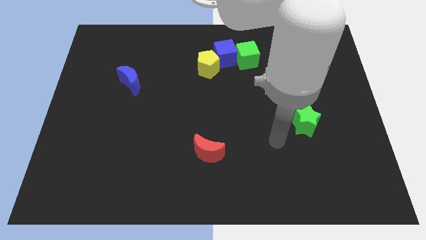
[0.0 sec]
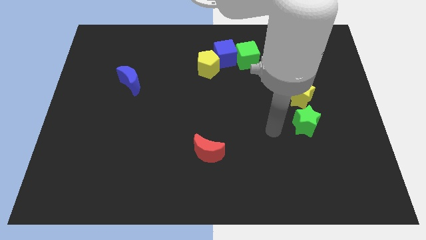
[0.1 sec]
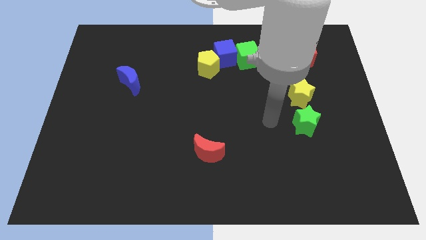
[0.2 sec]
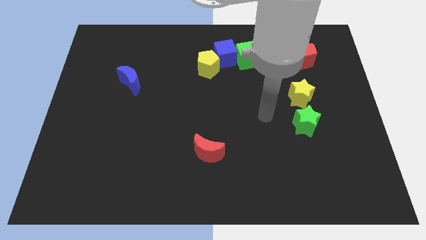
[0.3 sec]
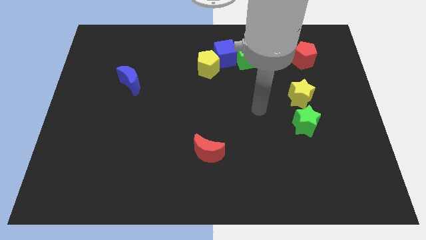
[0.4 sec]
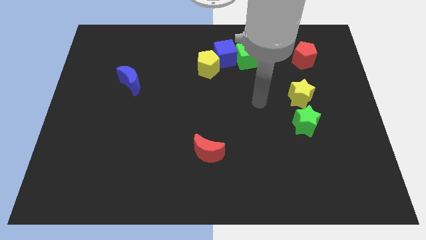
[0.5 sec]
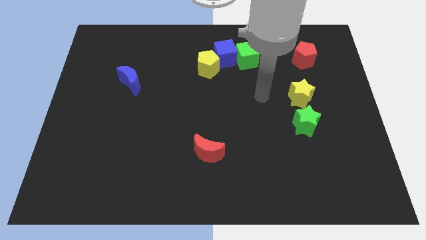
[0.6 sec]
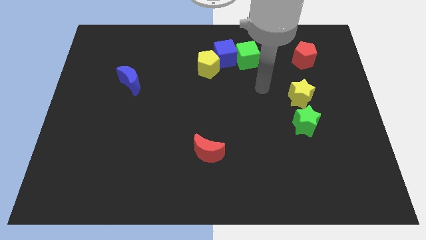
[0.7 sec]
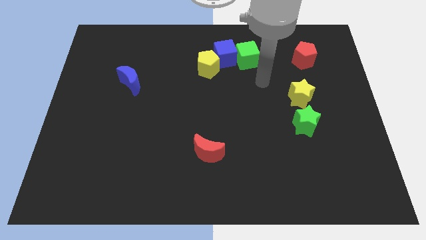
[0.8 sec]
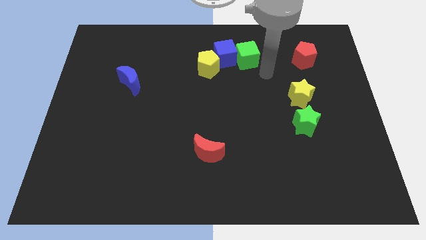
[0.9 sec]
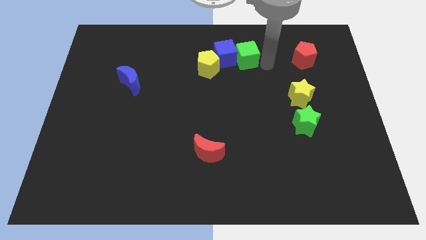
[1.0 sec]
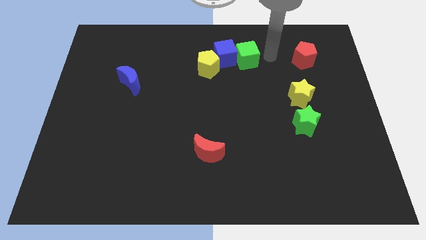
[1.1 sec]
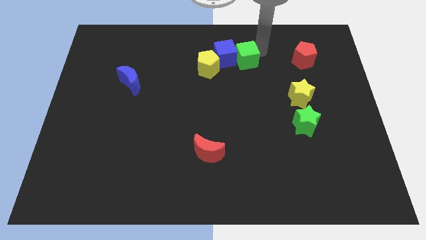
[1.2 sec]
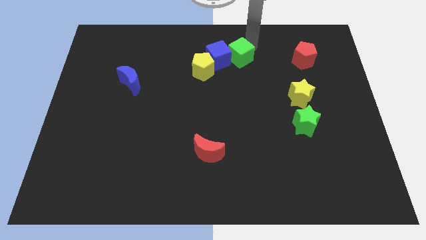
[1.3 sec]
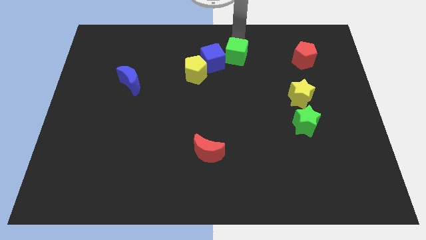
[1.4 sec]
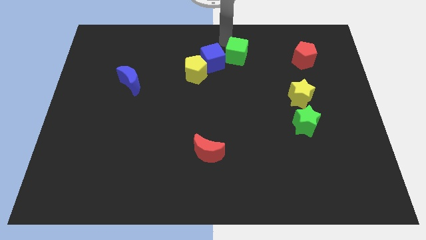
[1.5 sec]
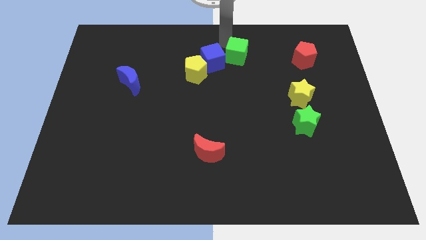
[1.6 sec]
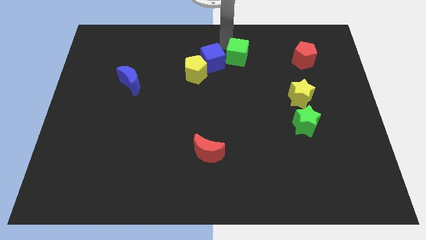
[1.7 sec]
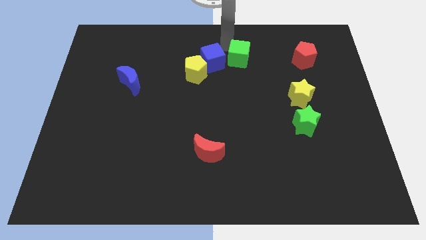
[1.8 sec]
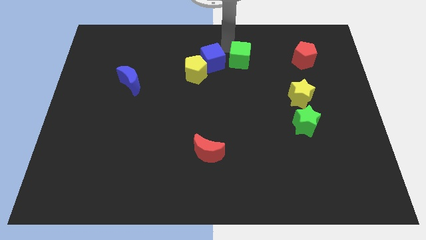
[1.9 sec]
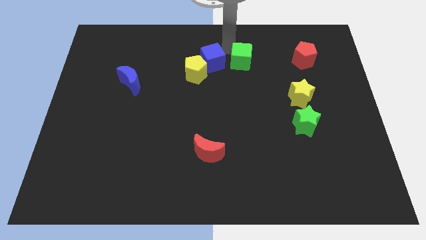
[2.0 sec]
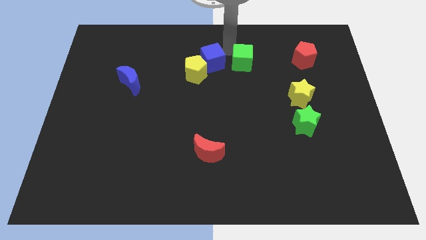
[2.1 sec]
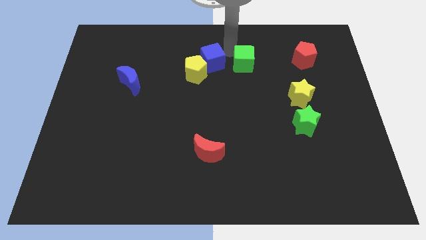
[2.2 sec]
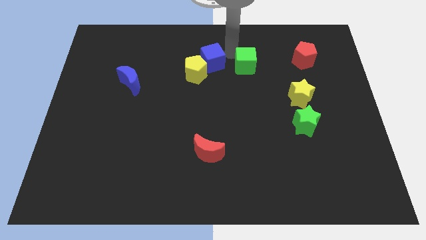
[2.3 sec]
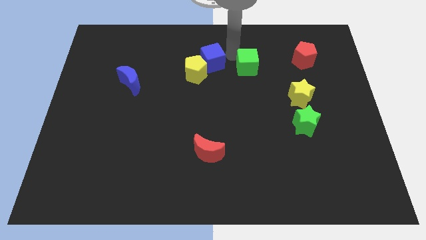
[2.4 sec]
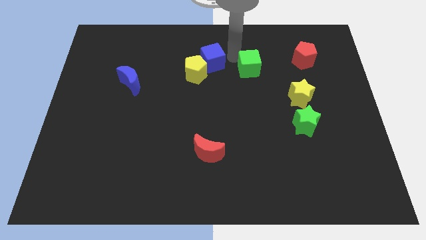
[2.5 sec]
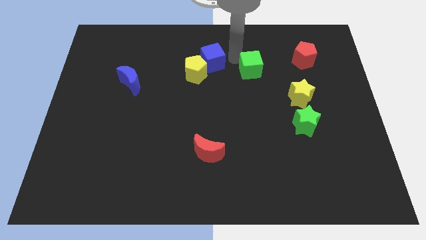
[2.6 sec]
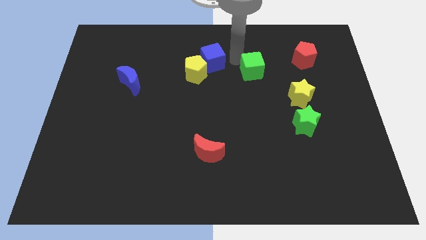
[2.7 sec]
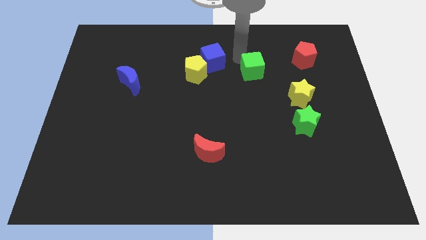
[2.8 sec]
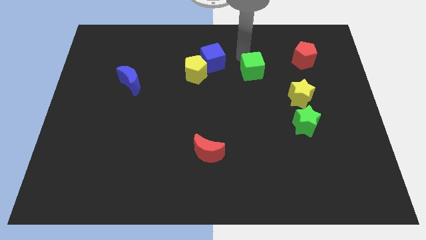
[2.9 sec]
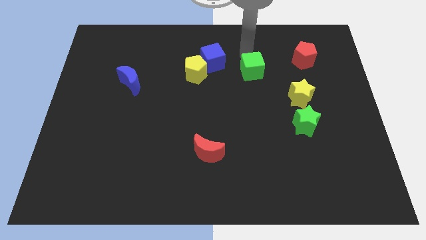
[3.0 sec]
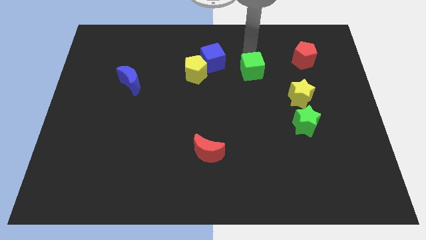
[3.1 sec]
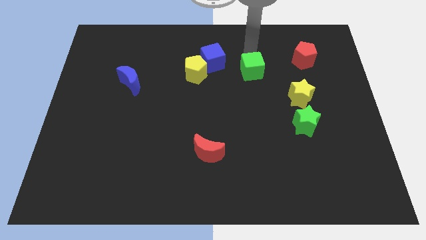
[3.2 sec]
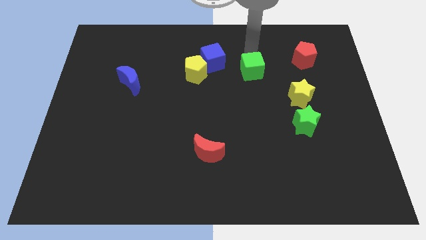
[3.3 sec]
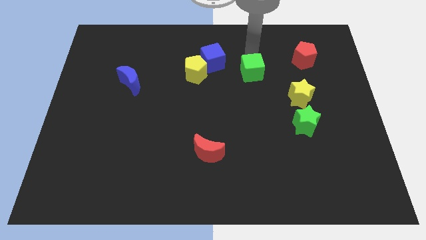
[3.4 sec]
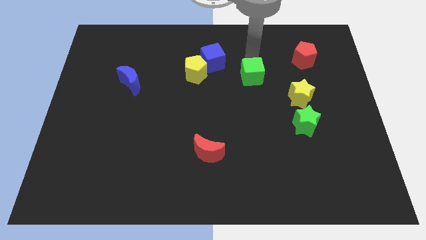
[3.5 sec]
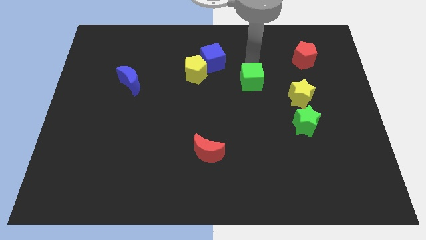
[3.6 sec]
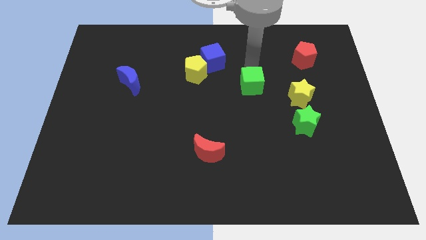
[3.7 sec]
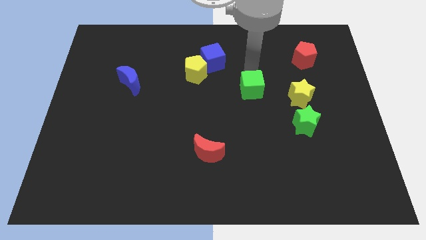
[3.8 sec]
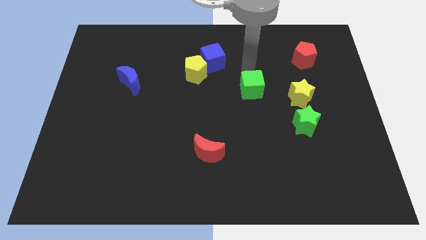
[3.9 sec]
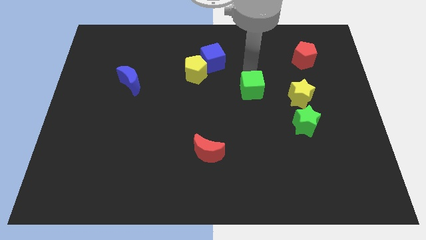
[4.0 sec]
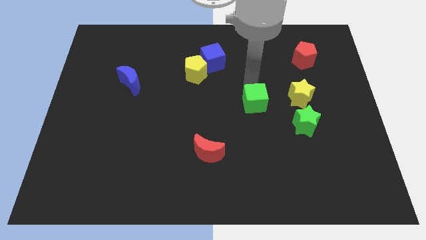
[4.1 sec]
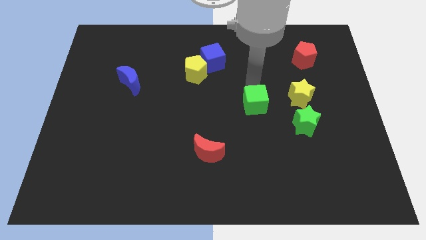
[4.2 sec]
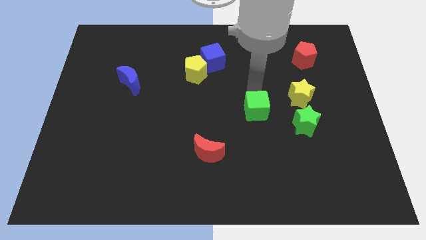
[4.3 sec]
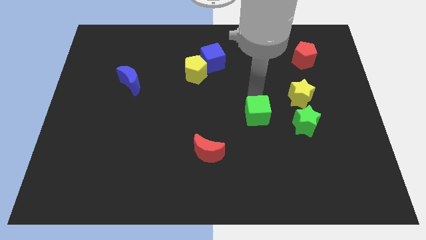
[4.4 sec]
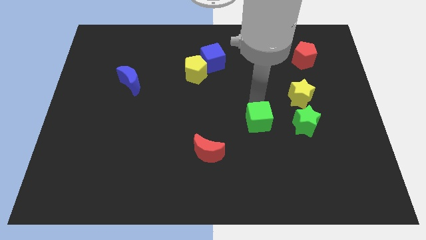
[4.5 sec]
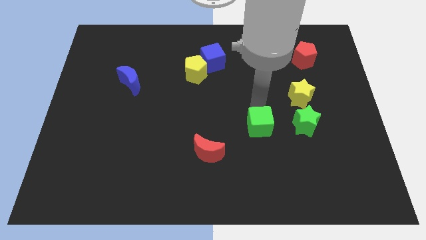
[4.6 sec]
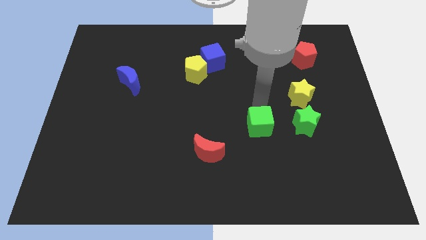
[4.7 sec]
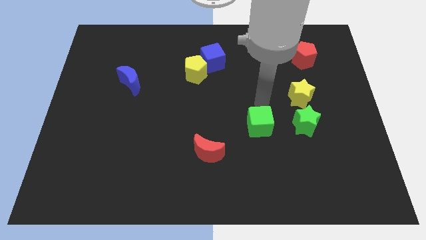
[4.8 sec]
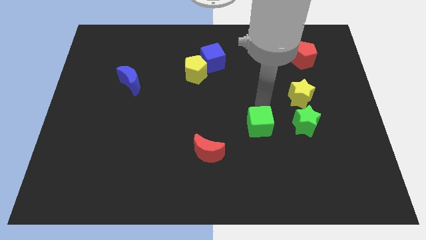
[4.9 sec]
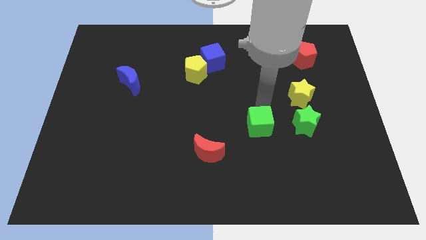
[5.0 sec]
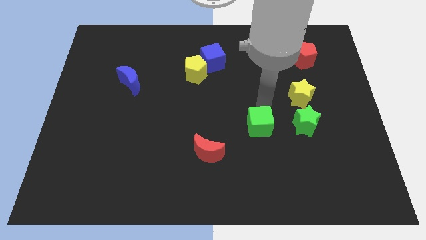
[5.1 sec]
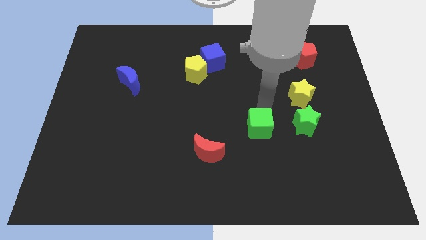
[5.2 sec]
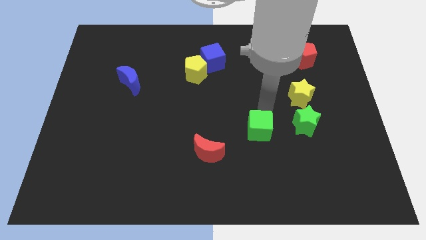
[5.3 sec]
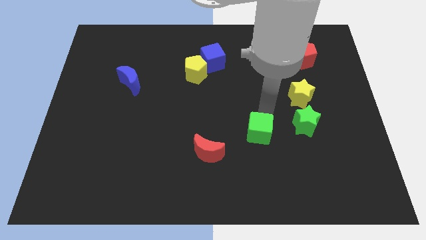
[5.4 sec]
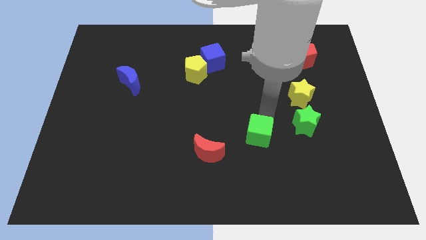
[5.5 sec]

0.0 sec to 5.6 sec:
push the green cube to the right of the red moon

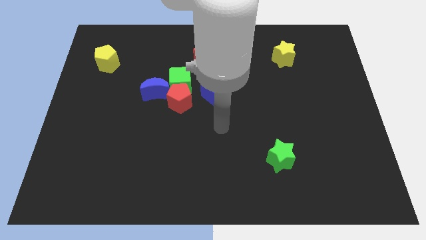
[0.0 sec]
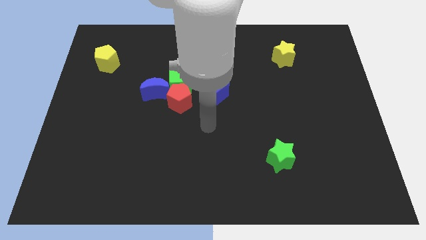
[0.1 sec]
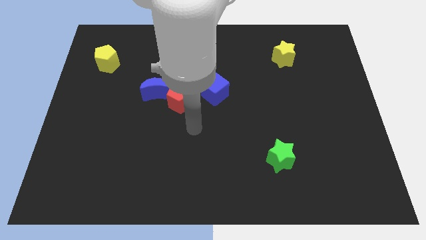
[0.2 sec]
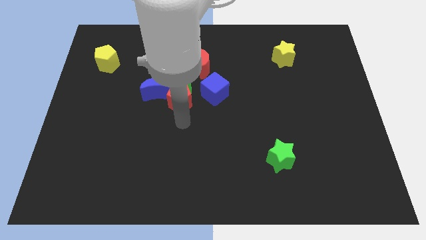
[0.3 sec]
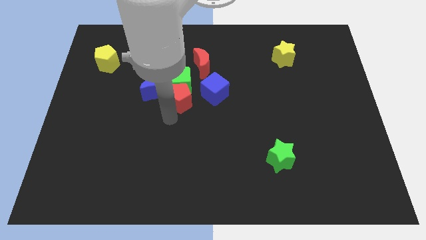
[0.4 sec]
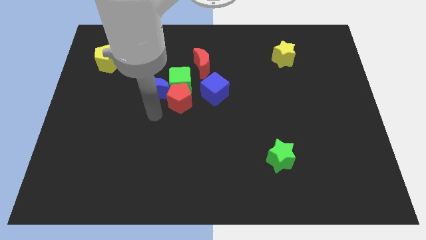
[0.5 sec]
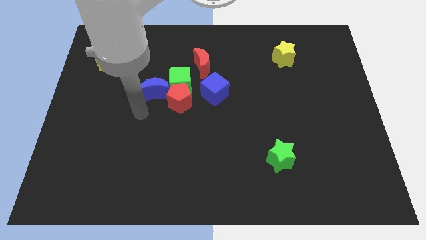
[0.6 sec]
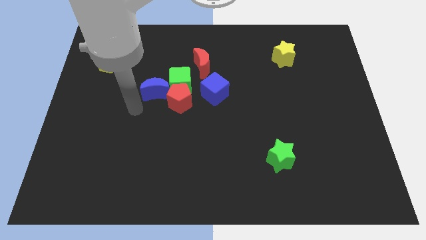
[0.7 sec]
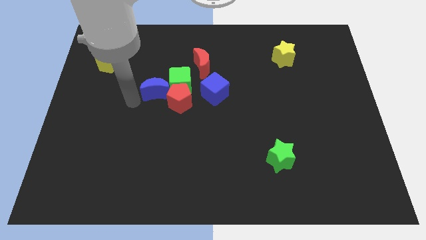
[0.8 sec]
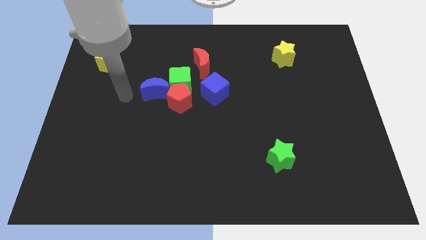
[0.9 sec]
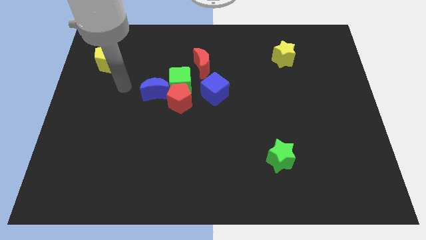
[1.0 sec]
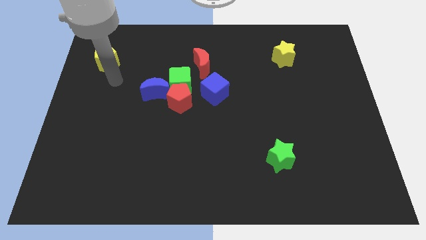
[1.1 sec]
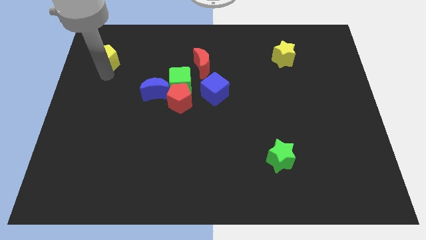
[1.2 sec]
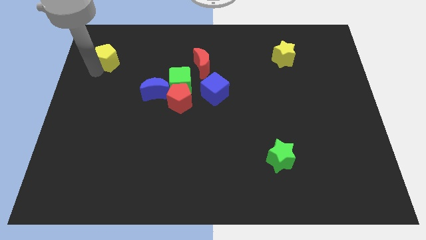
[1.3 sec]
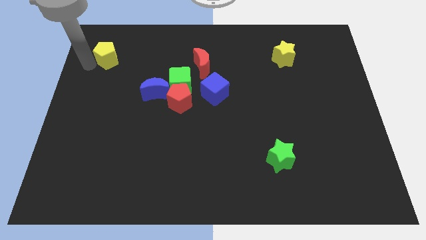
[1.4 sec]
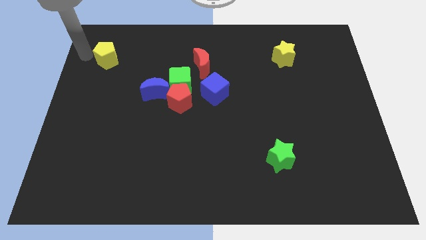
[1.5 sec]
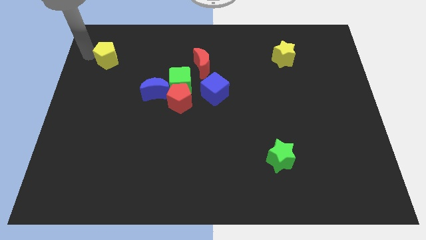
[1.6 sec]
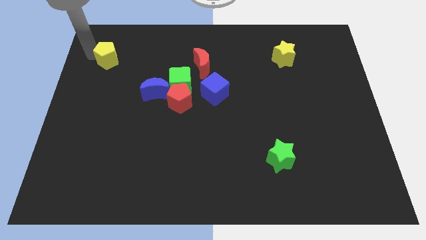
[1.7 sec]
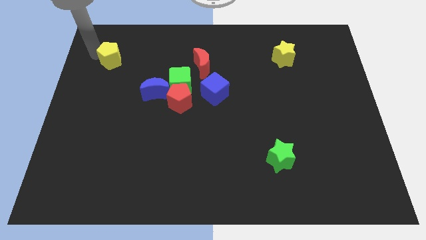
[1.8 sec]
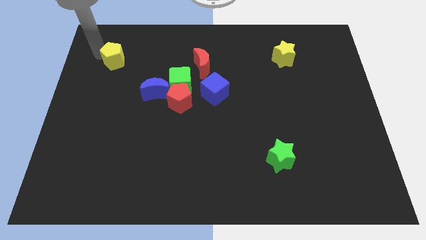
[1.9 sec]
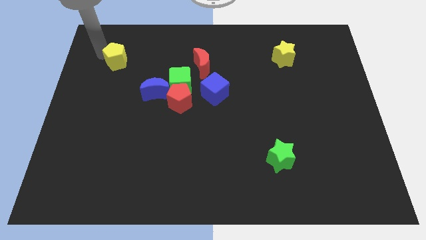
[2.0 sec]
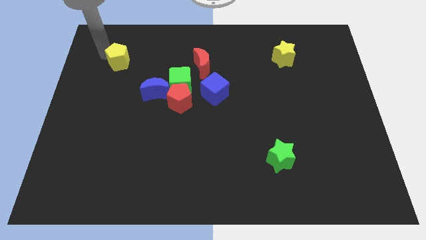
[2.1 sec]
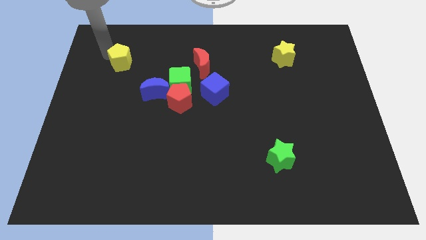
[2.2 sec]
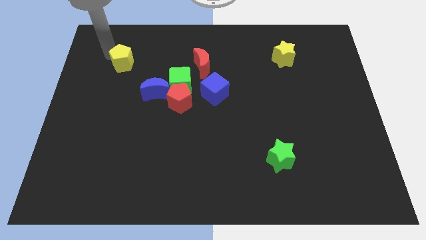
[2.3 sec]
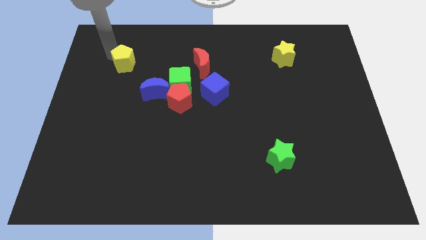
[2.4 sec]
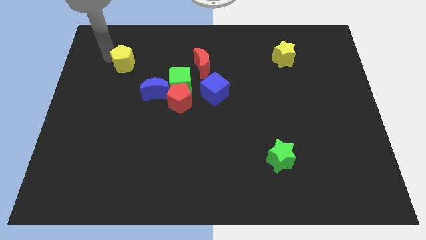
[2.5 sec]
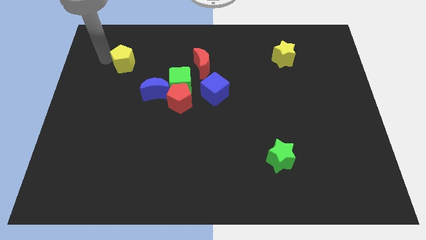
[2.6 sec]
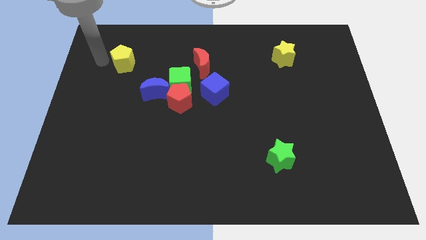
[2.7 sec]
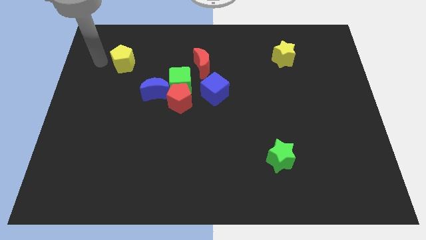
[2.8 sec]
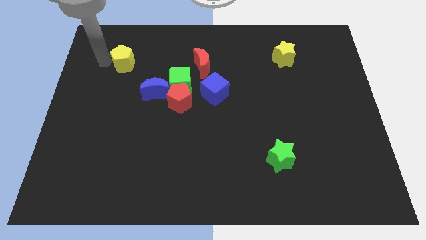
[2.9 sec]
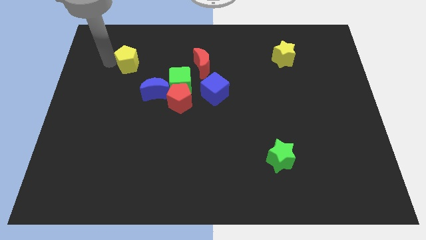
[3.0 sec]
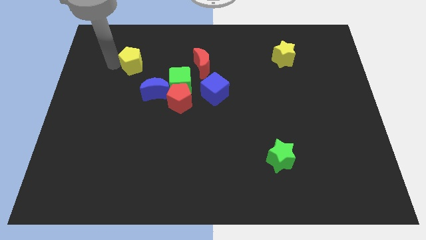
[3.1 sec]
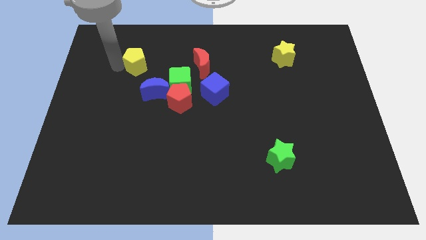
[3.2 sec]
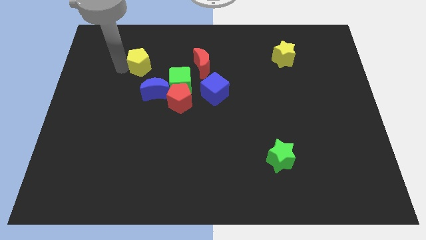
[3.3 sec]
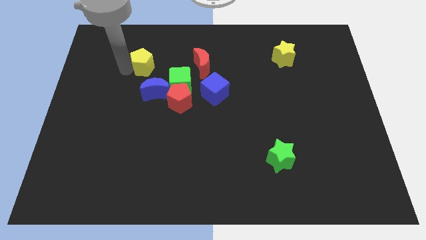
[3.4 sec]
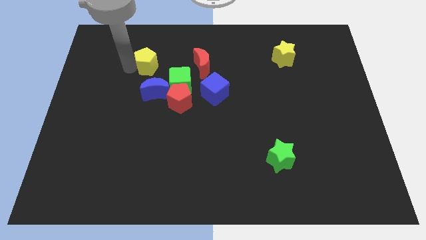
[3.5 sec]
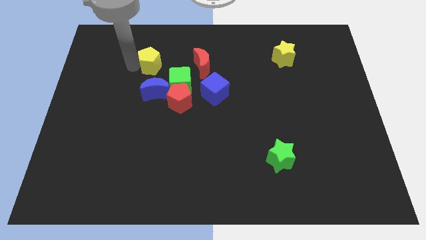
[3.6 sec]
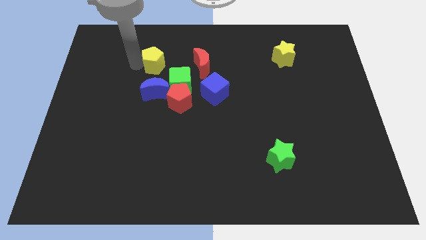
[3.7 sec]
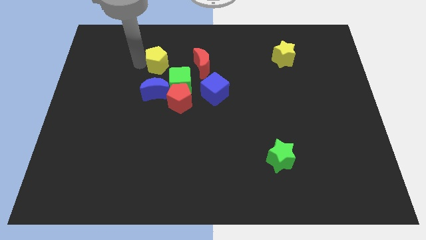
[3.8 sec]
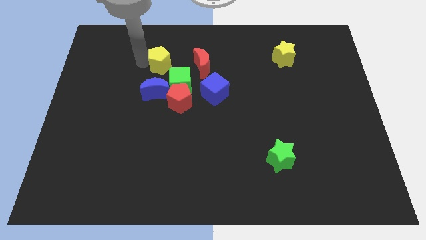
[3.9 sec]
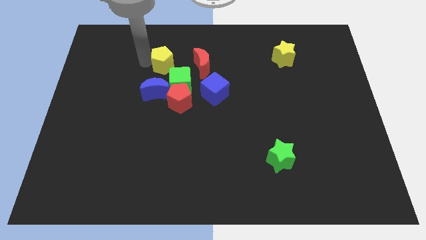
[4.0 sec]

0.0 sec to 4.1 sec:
push the yellow pentagon to the top of the green cube
